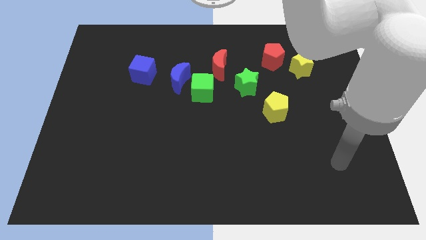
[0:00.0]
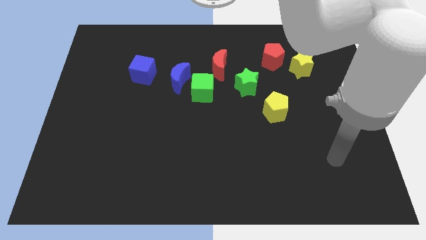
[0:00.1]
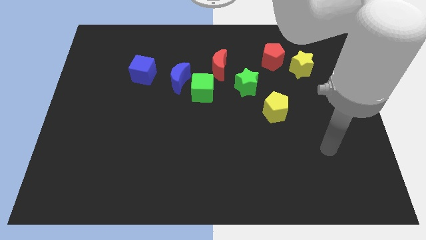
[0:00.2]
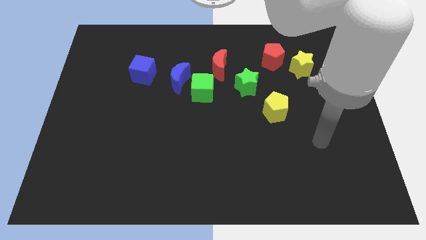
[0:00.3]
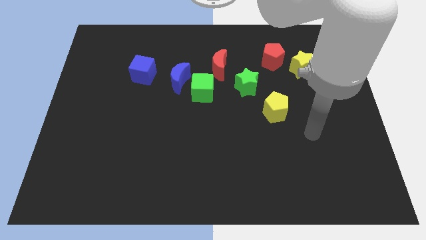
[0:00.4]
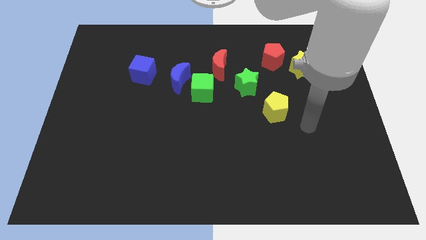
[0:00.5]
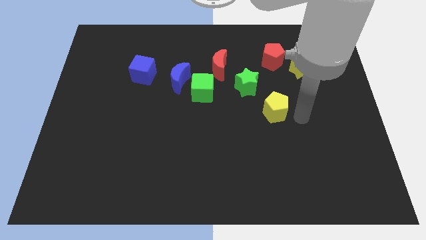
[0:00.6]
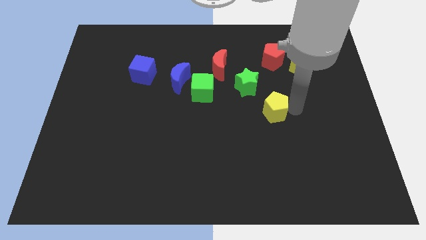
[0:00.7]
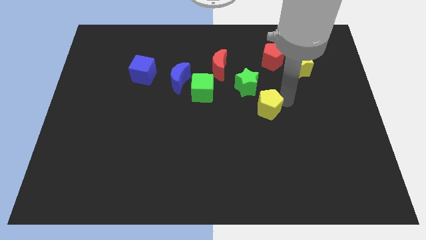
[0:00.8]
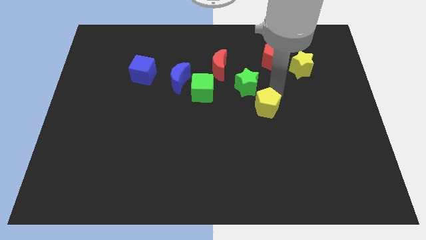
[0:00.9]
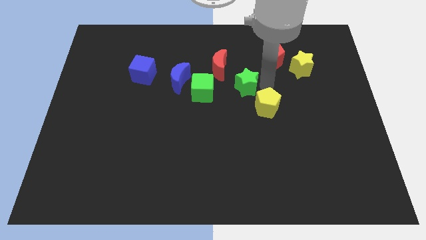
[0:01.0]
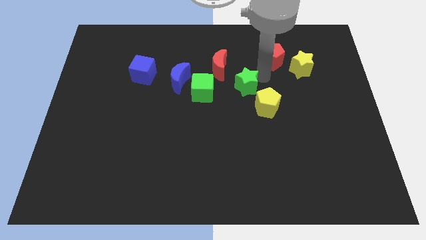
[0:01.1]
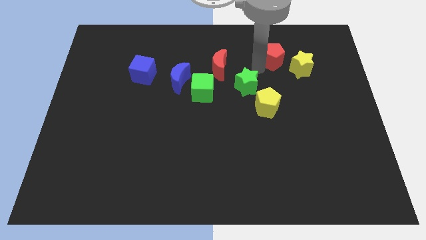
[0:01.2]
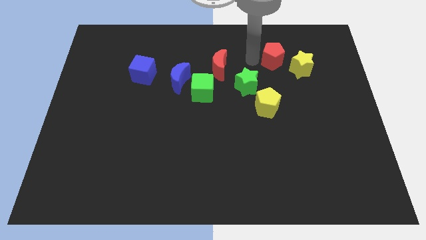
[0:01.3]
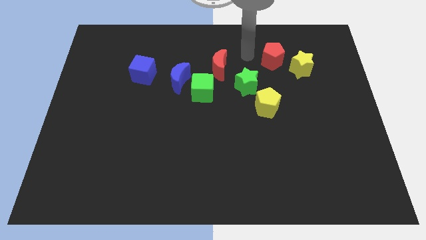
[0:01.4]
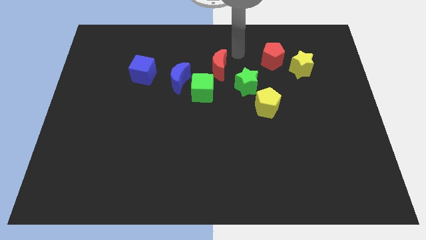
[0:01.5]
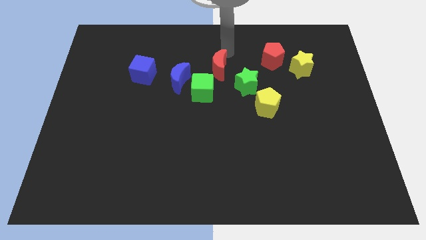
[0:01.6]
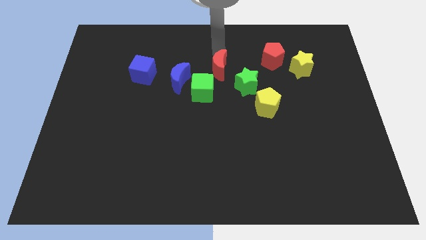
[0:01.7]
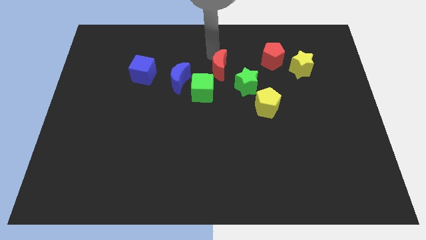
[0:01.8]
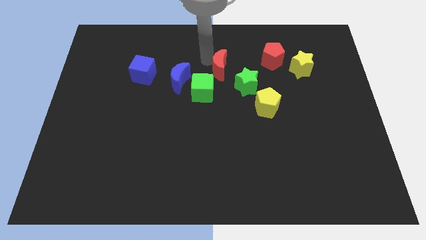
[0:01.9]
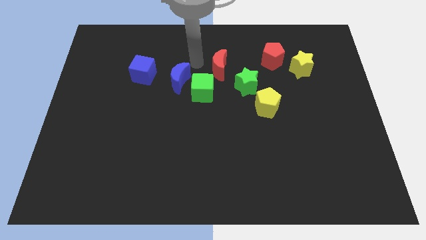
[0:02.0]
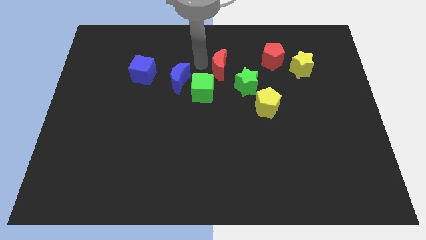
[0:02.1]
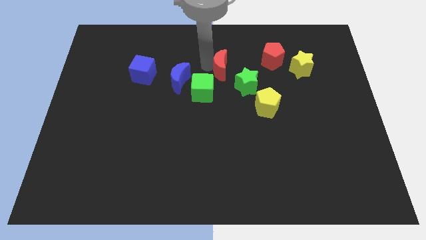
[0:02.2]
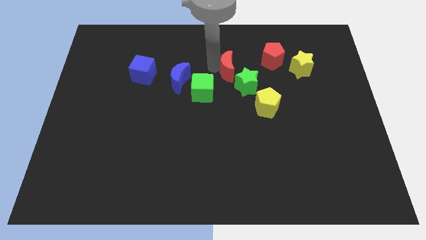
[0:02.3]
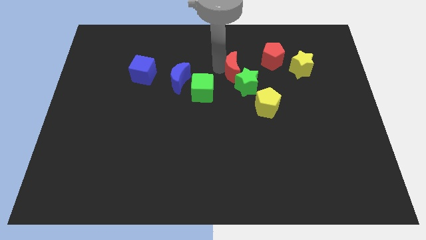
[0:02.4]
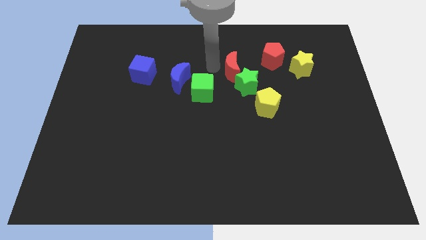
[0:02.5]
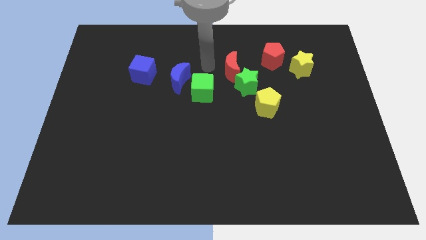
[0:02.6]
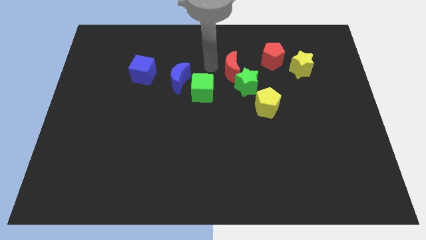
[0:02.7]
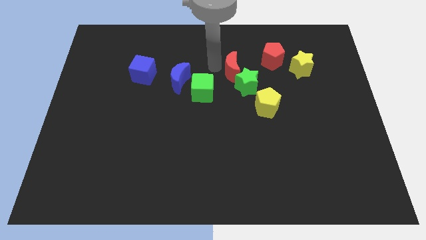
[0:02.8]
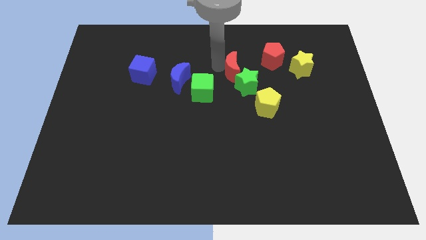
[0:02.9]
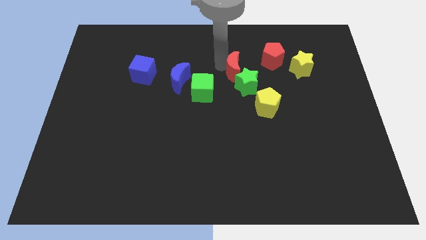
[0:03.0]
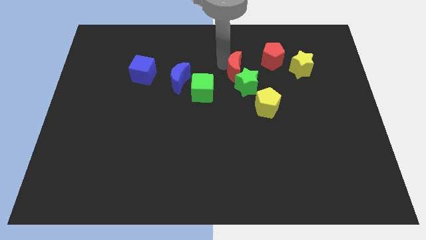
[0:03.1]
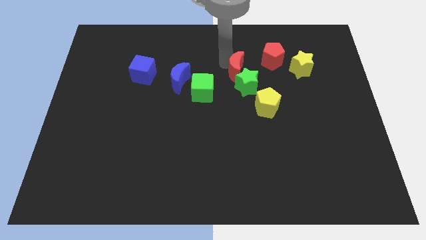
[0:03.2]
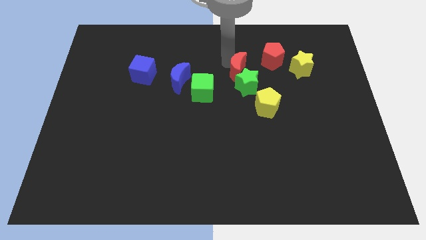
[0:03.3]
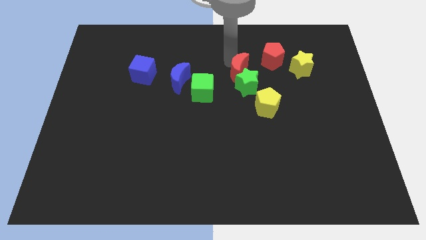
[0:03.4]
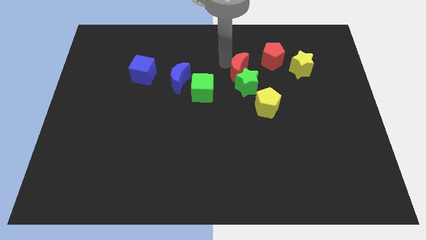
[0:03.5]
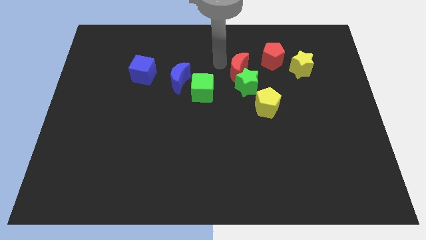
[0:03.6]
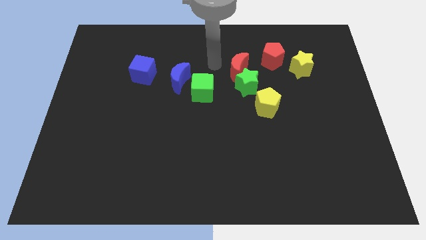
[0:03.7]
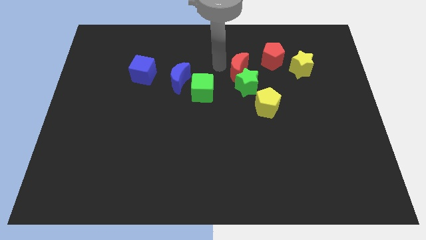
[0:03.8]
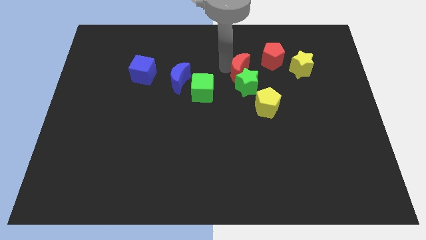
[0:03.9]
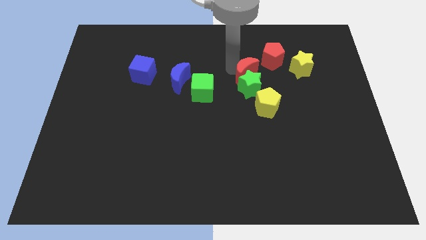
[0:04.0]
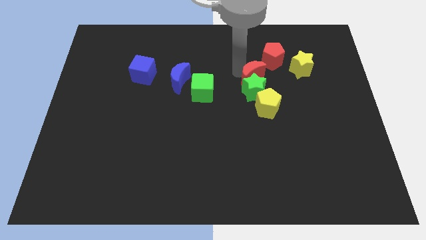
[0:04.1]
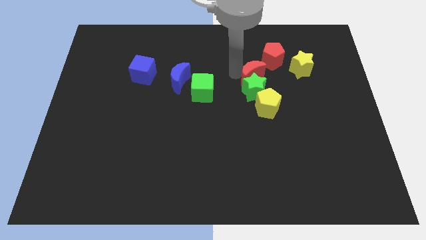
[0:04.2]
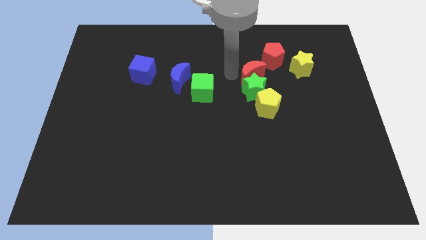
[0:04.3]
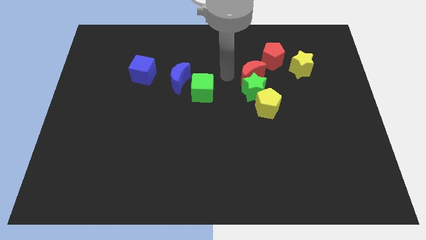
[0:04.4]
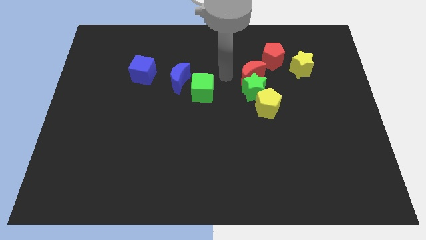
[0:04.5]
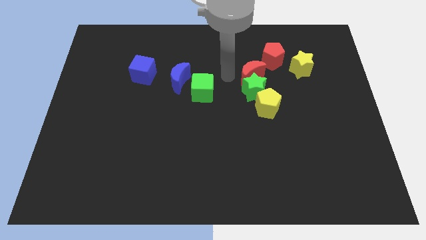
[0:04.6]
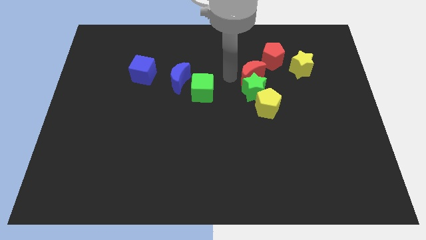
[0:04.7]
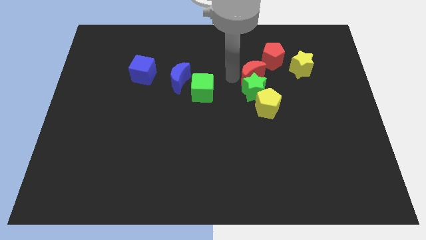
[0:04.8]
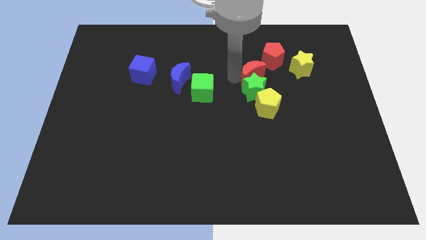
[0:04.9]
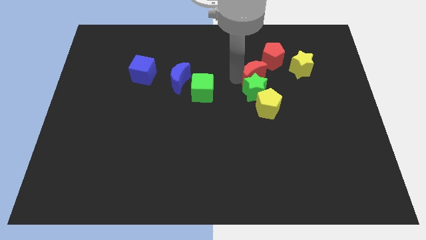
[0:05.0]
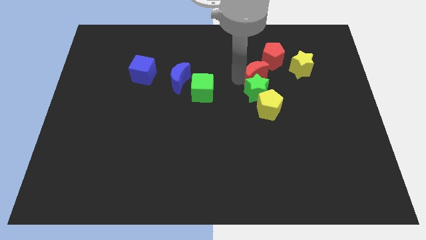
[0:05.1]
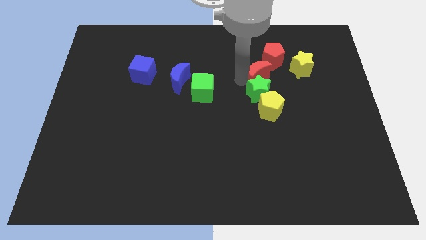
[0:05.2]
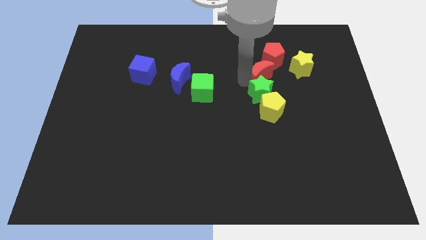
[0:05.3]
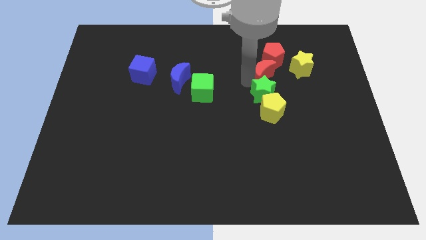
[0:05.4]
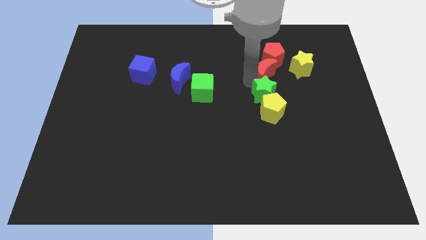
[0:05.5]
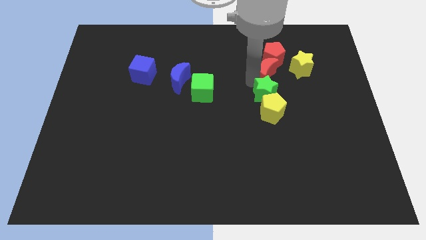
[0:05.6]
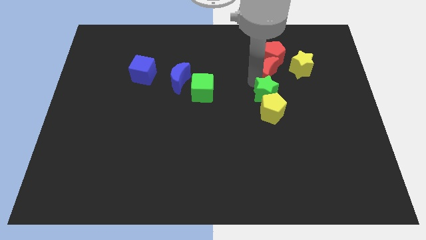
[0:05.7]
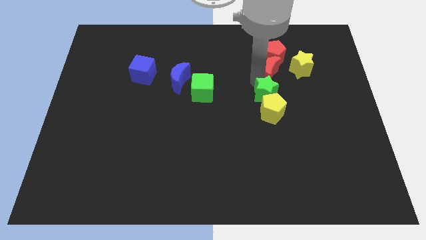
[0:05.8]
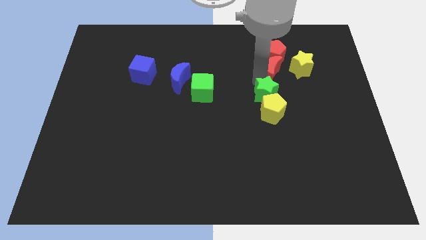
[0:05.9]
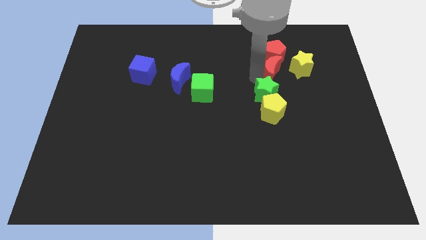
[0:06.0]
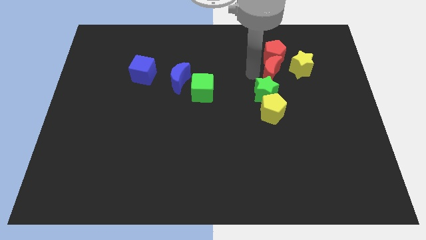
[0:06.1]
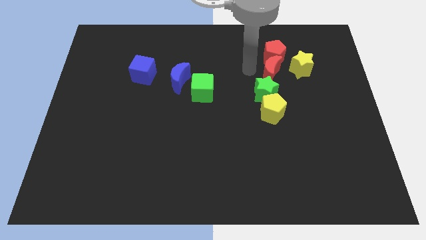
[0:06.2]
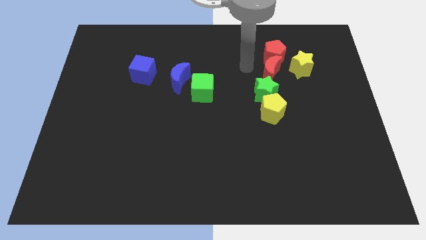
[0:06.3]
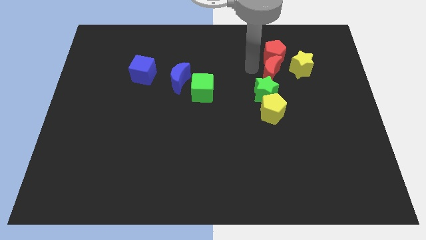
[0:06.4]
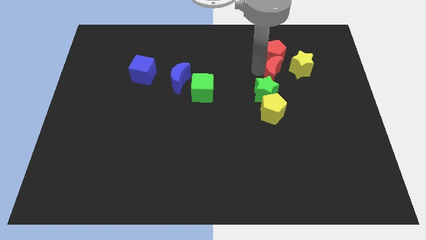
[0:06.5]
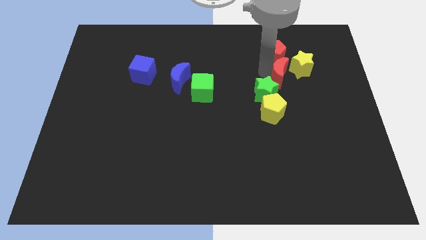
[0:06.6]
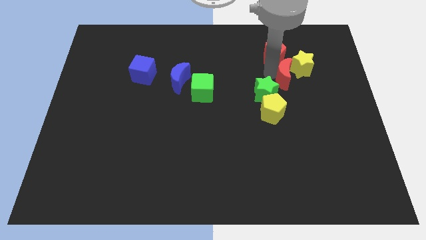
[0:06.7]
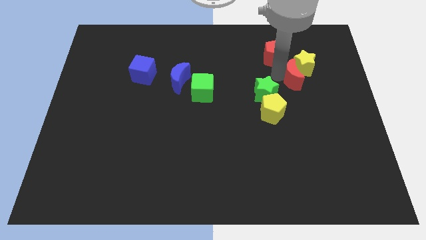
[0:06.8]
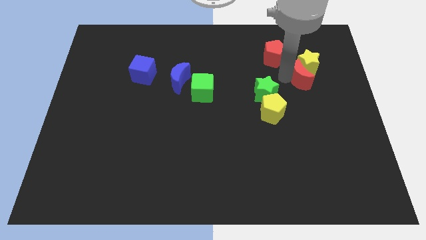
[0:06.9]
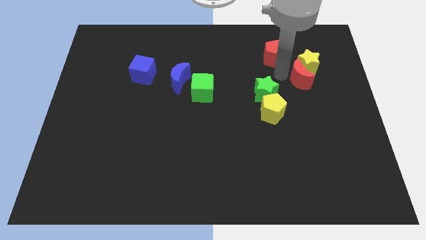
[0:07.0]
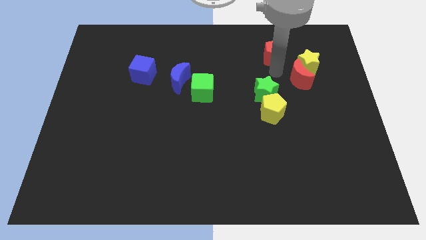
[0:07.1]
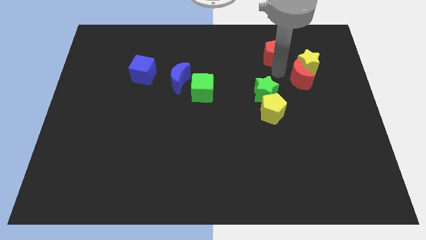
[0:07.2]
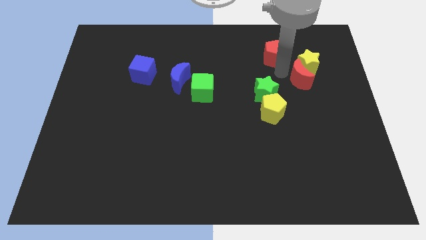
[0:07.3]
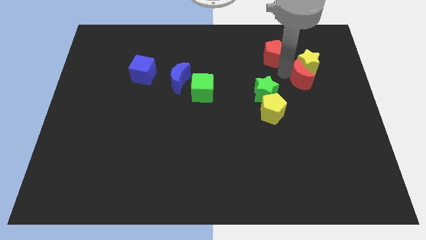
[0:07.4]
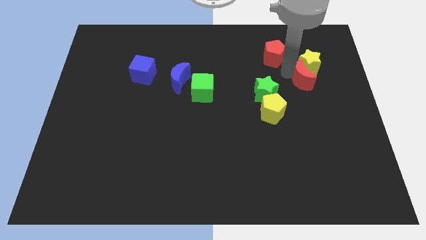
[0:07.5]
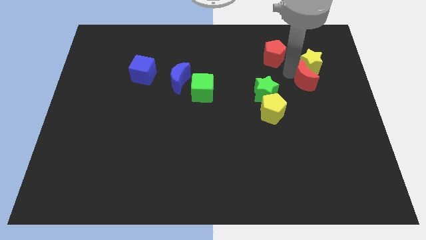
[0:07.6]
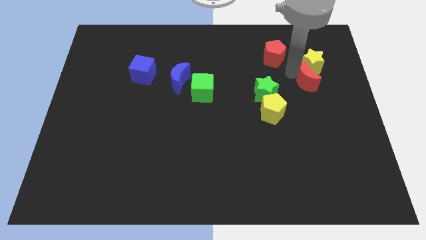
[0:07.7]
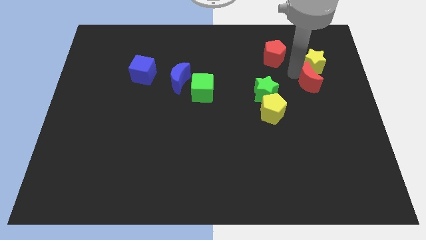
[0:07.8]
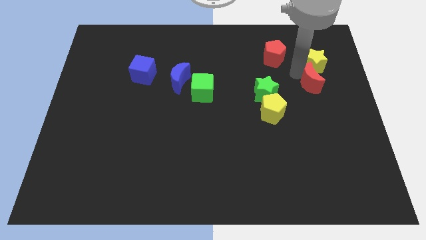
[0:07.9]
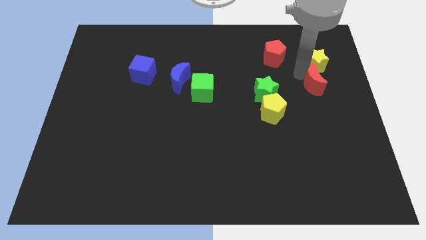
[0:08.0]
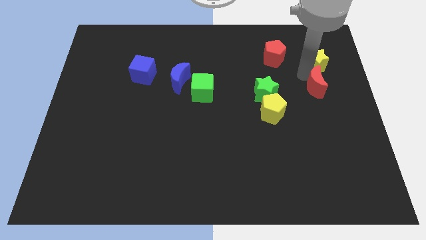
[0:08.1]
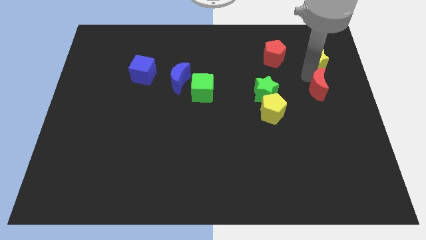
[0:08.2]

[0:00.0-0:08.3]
move the red moon to the right side of the board
